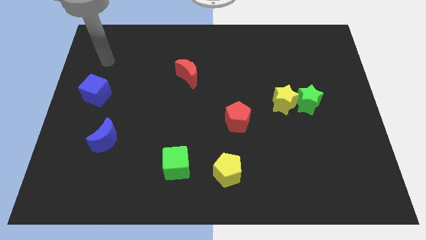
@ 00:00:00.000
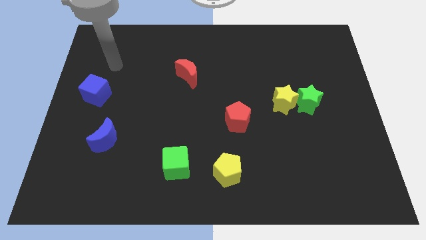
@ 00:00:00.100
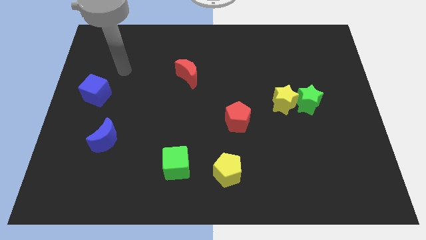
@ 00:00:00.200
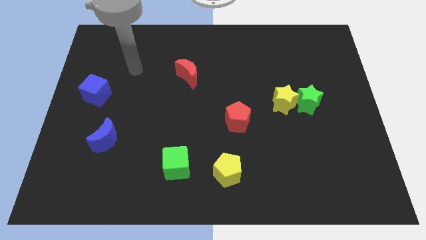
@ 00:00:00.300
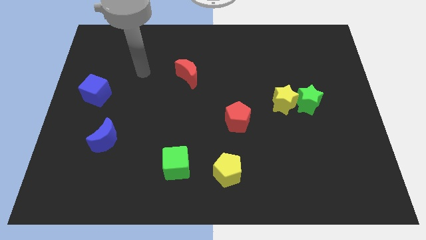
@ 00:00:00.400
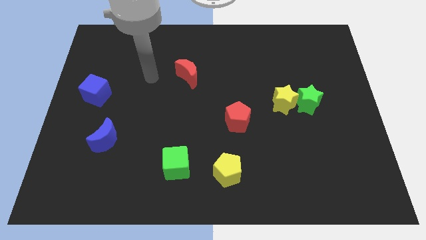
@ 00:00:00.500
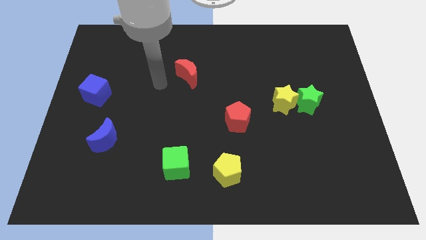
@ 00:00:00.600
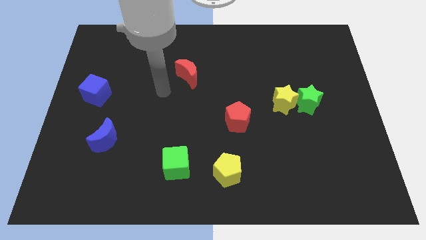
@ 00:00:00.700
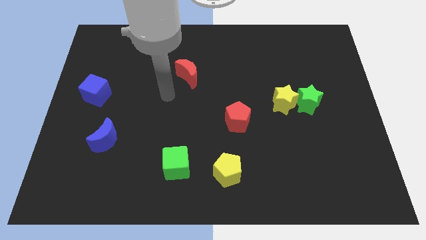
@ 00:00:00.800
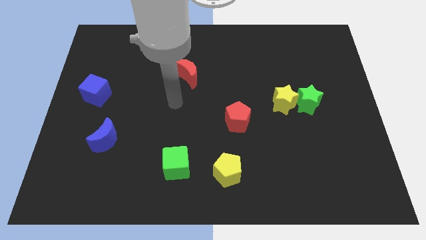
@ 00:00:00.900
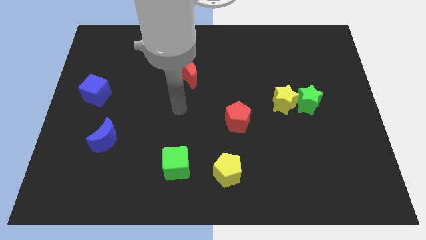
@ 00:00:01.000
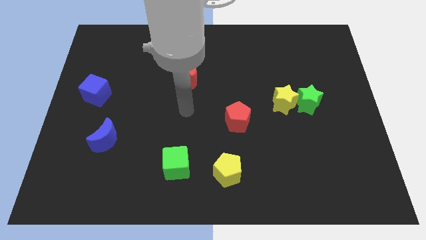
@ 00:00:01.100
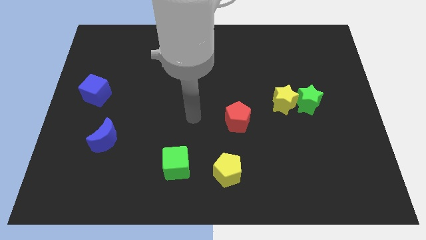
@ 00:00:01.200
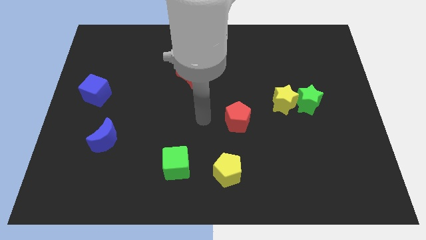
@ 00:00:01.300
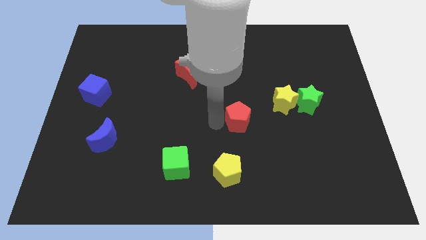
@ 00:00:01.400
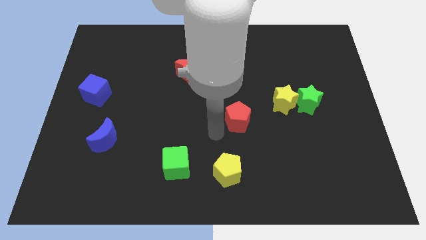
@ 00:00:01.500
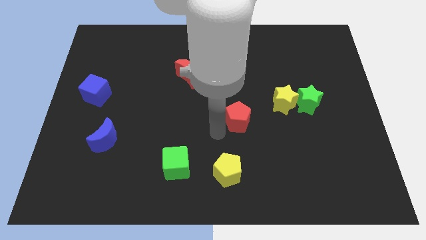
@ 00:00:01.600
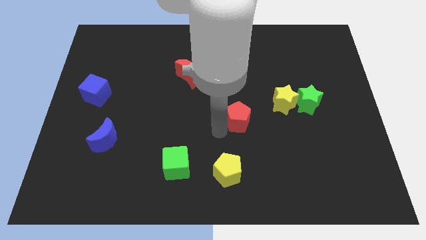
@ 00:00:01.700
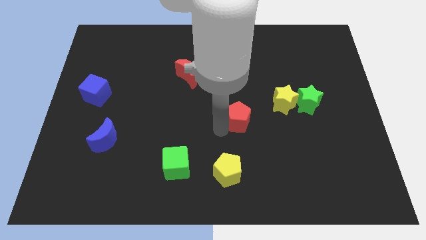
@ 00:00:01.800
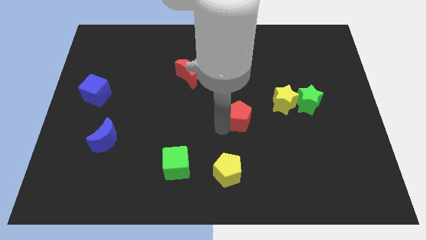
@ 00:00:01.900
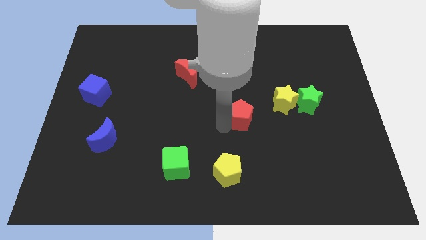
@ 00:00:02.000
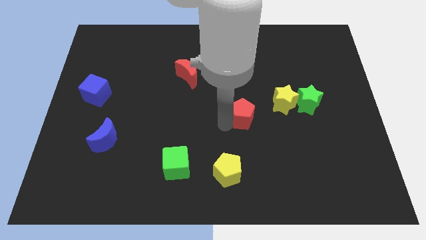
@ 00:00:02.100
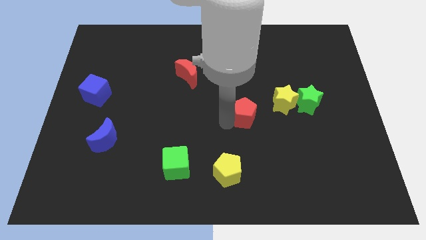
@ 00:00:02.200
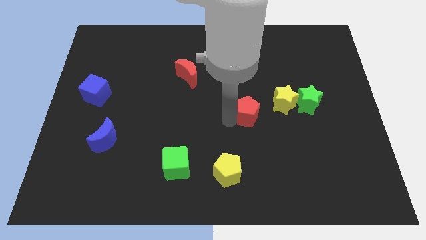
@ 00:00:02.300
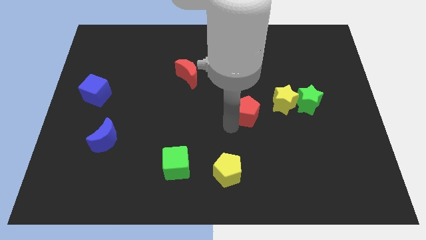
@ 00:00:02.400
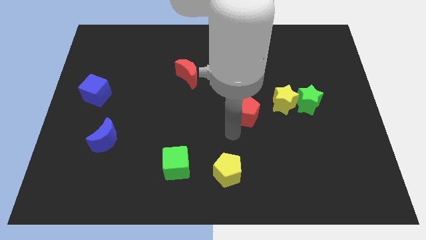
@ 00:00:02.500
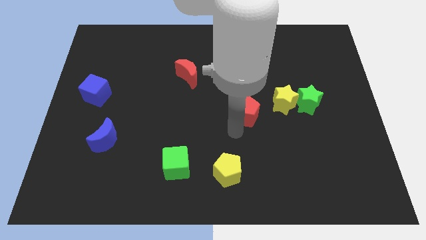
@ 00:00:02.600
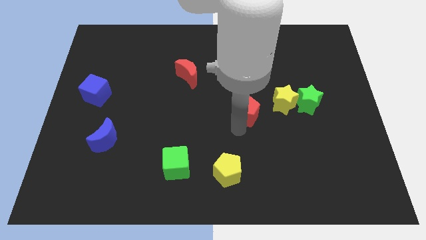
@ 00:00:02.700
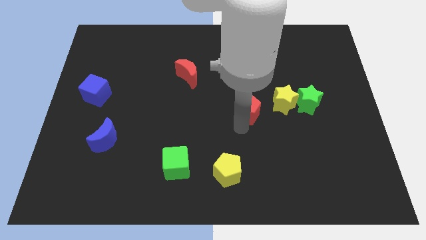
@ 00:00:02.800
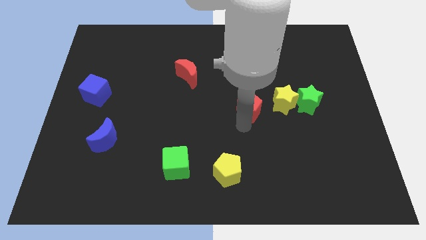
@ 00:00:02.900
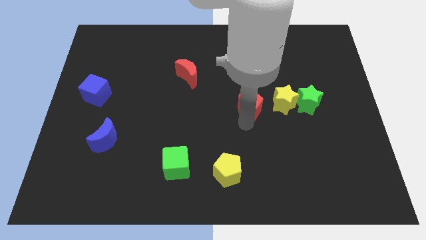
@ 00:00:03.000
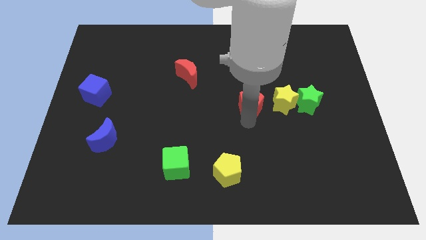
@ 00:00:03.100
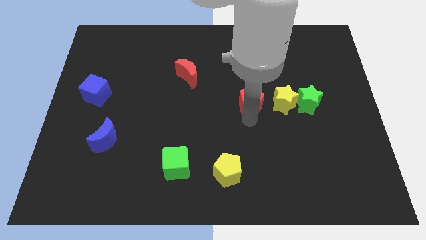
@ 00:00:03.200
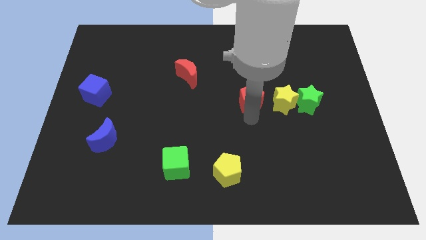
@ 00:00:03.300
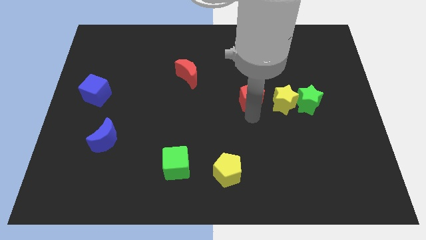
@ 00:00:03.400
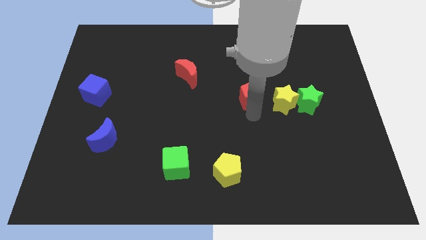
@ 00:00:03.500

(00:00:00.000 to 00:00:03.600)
push the red pentagon slightly diagonally upwards and to the right

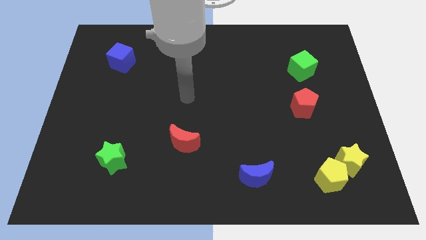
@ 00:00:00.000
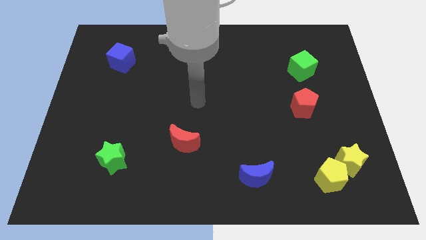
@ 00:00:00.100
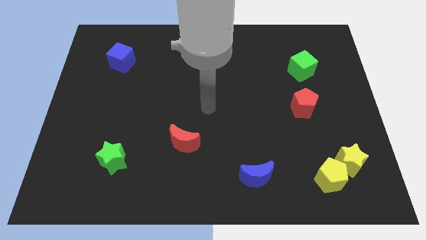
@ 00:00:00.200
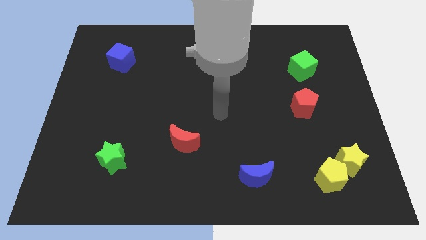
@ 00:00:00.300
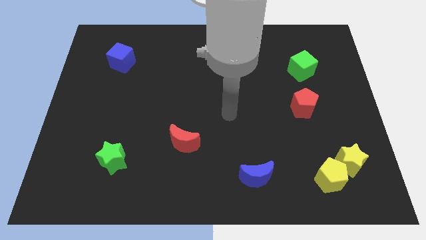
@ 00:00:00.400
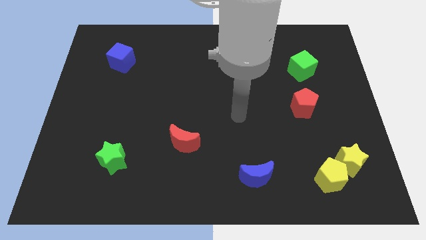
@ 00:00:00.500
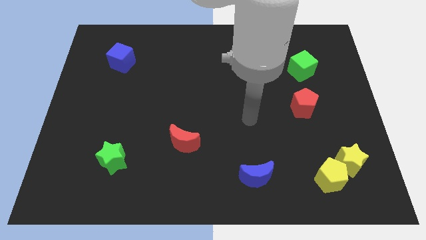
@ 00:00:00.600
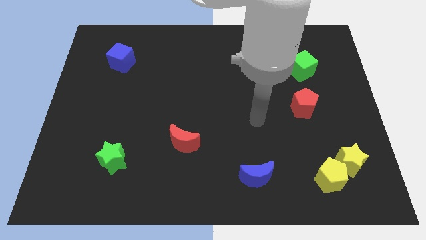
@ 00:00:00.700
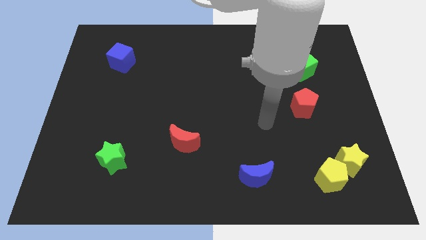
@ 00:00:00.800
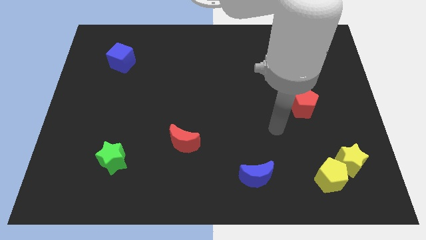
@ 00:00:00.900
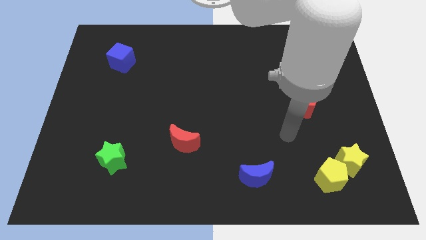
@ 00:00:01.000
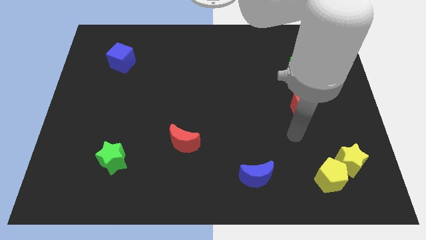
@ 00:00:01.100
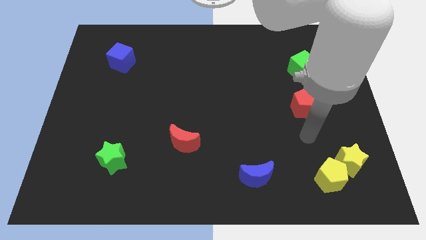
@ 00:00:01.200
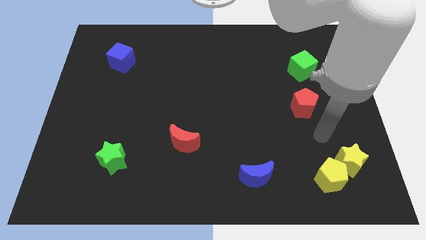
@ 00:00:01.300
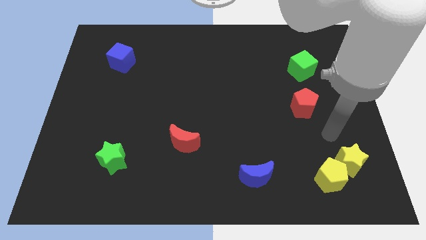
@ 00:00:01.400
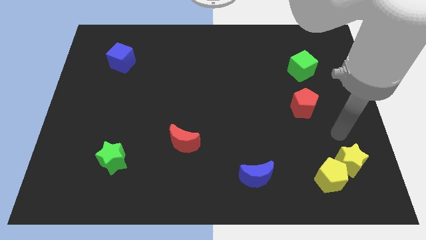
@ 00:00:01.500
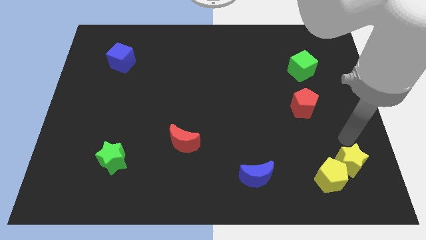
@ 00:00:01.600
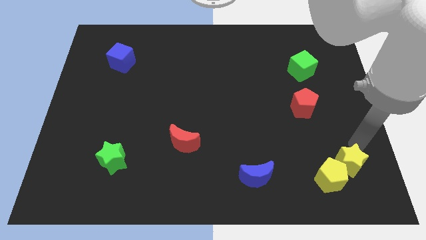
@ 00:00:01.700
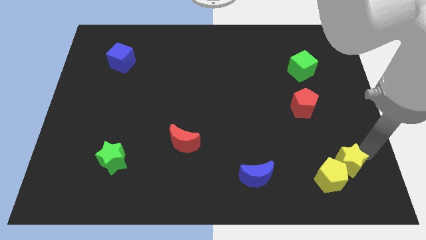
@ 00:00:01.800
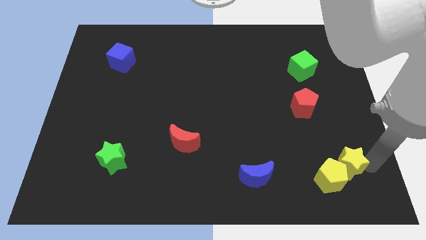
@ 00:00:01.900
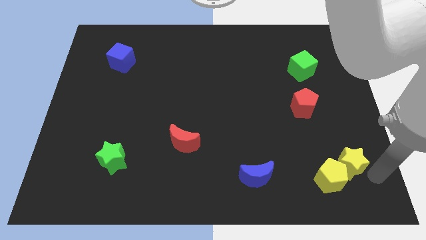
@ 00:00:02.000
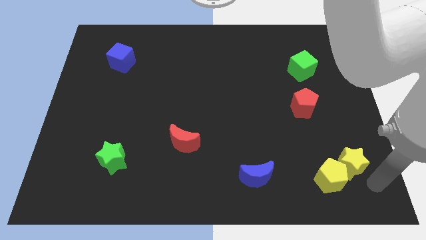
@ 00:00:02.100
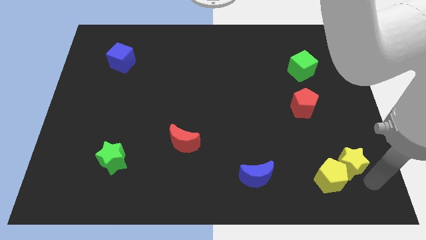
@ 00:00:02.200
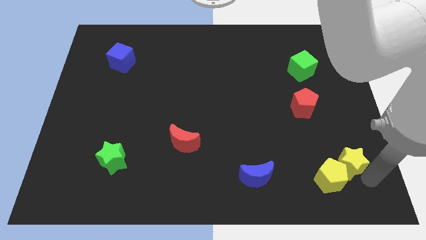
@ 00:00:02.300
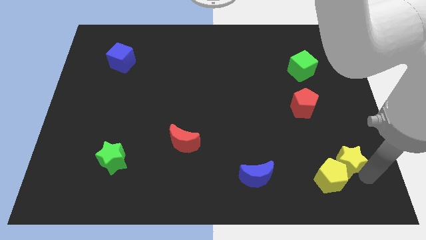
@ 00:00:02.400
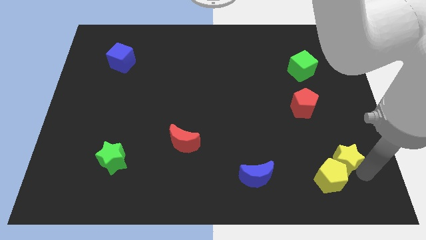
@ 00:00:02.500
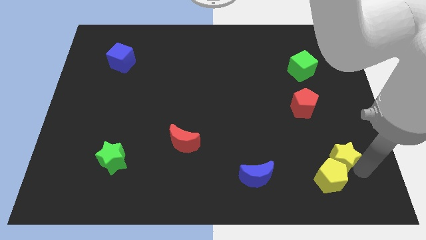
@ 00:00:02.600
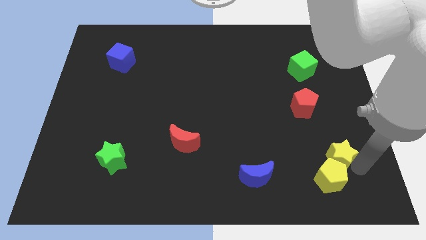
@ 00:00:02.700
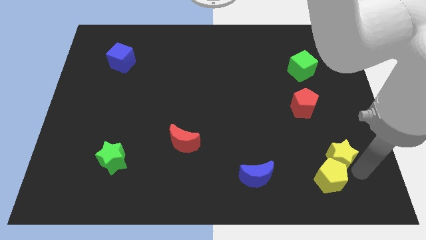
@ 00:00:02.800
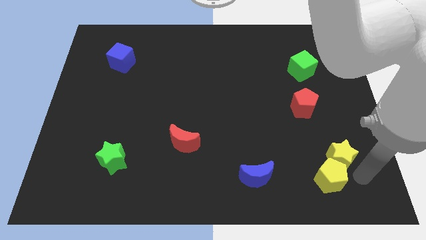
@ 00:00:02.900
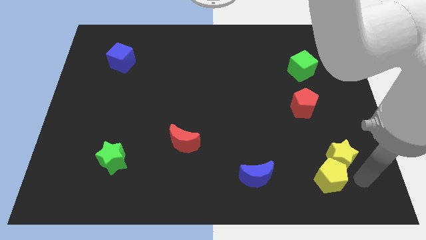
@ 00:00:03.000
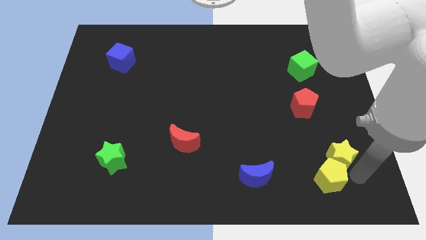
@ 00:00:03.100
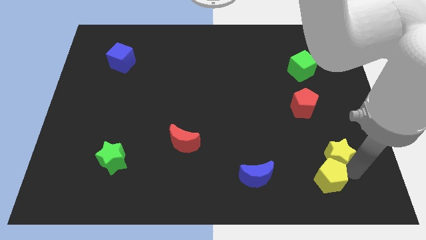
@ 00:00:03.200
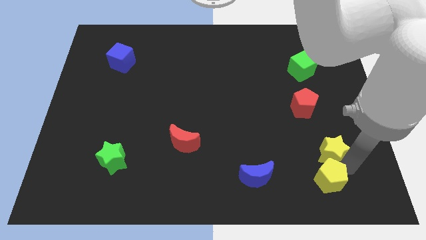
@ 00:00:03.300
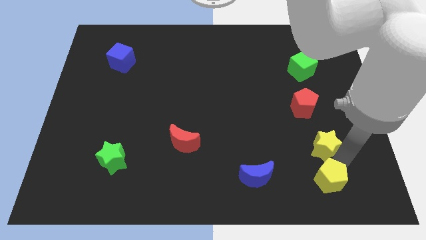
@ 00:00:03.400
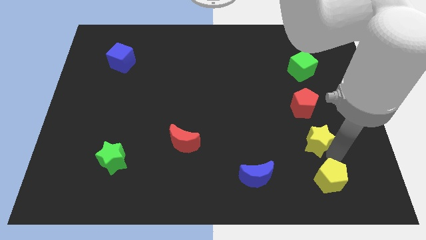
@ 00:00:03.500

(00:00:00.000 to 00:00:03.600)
move the yellow star diagonally upwards and left slightly

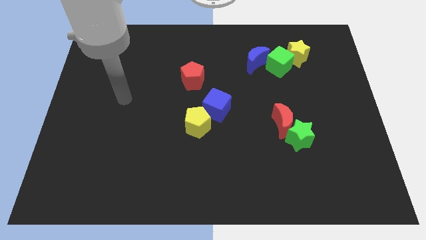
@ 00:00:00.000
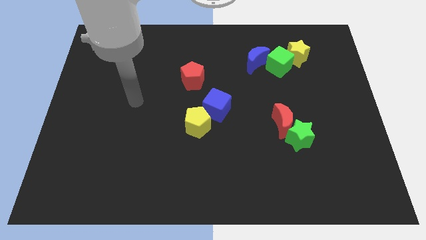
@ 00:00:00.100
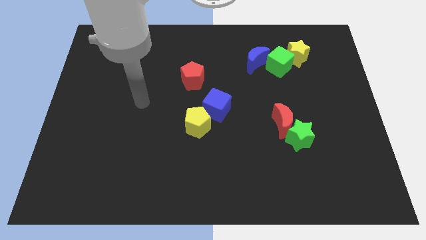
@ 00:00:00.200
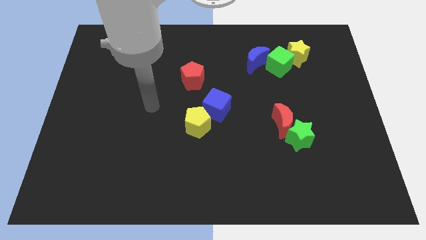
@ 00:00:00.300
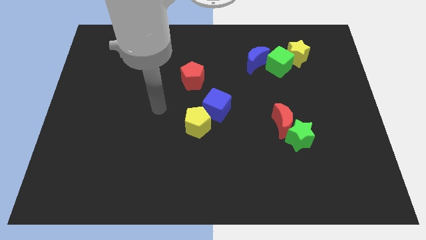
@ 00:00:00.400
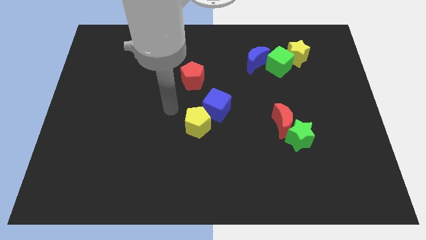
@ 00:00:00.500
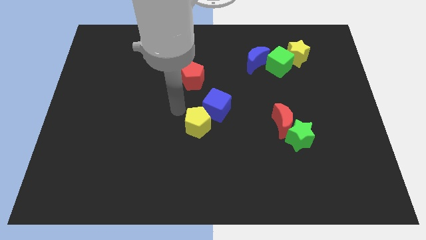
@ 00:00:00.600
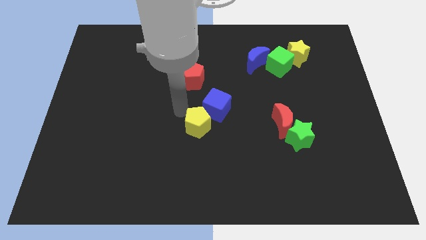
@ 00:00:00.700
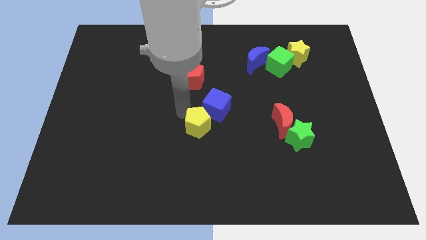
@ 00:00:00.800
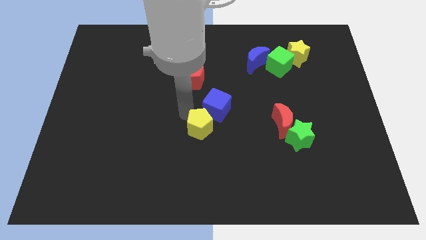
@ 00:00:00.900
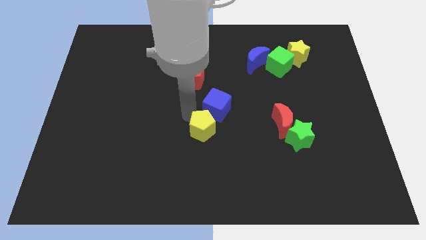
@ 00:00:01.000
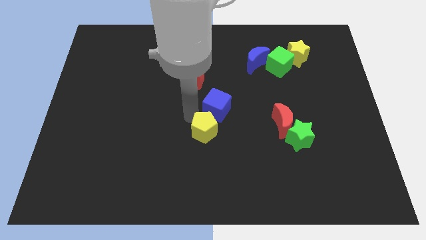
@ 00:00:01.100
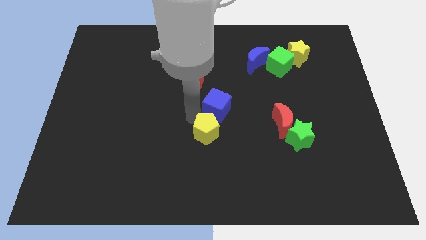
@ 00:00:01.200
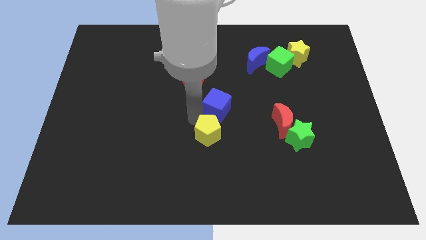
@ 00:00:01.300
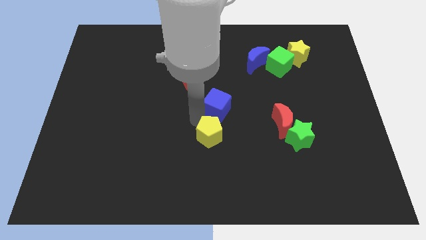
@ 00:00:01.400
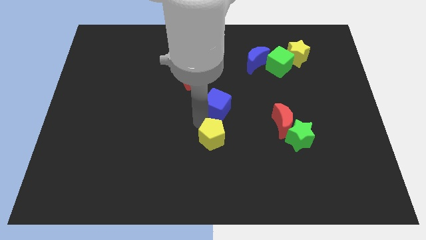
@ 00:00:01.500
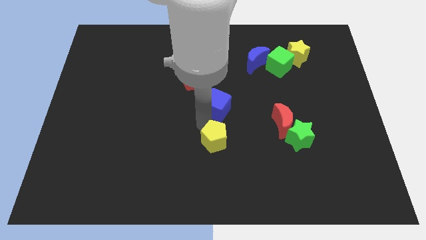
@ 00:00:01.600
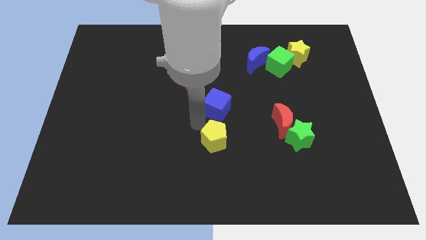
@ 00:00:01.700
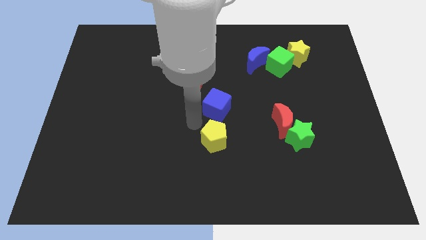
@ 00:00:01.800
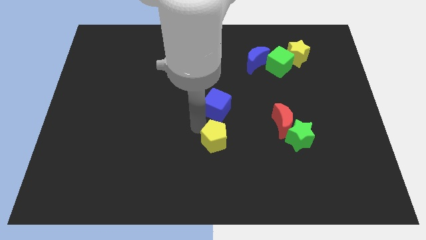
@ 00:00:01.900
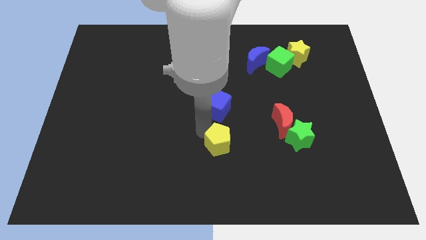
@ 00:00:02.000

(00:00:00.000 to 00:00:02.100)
slide the yellow pentagon down and right diagonally a little bit
